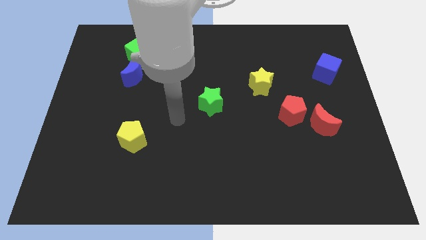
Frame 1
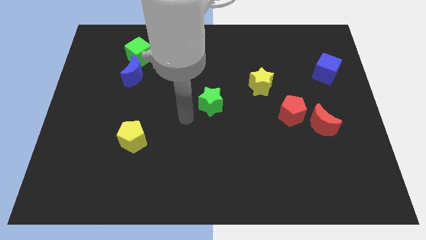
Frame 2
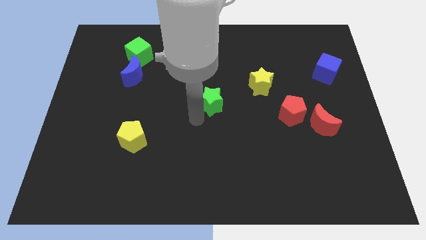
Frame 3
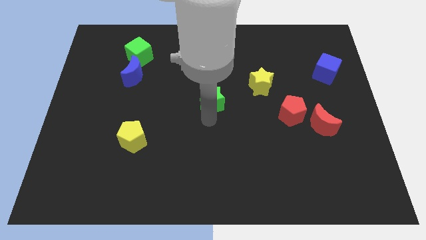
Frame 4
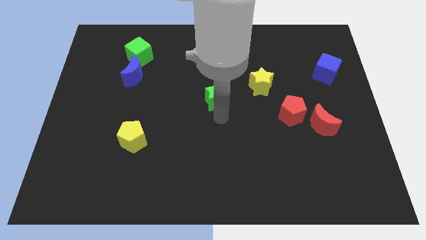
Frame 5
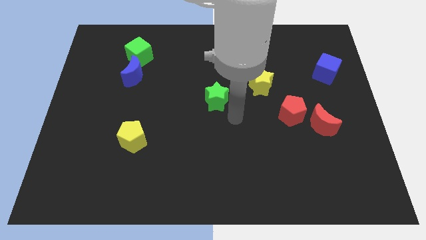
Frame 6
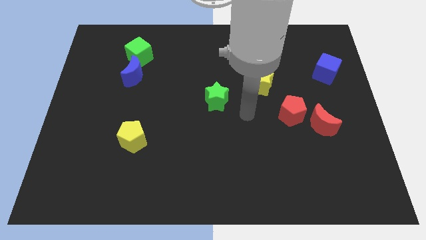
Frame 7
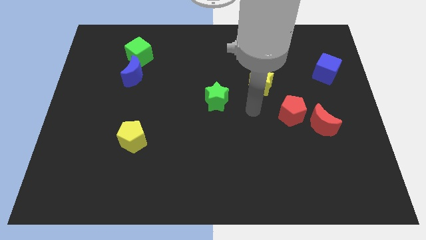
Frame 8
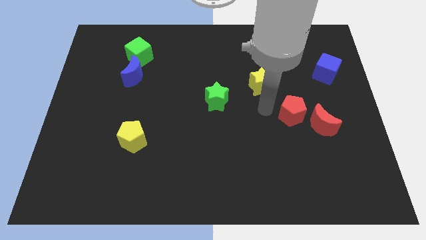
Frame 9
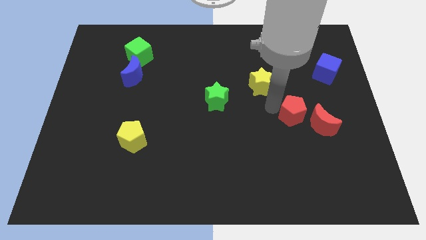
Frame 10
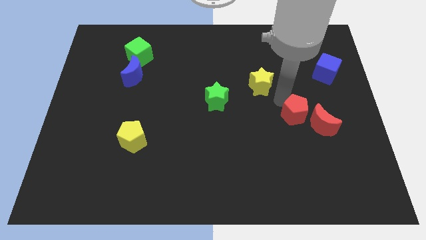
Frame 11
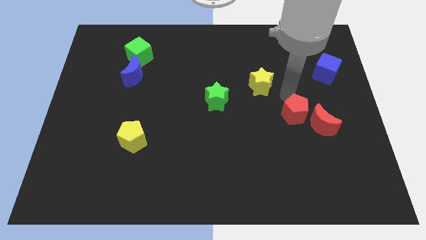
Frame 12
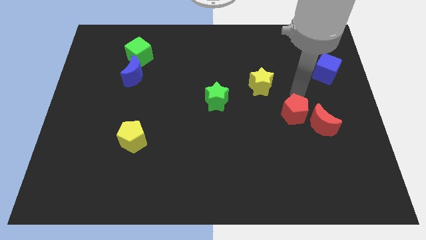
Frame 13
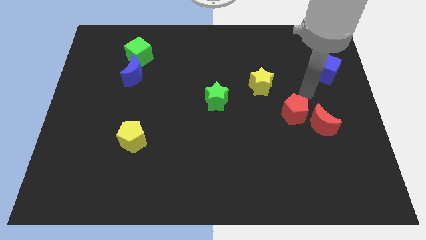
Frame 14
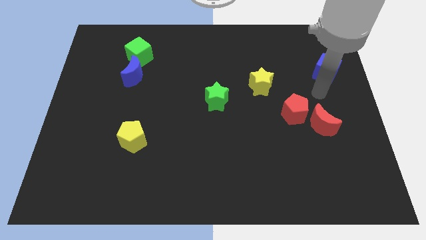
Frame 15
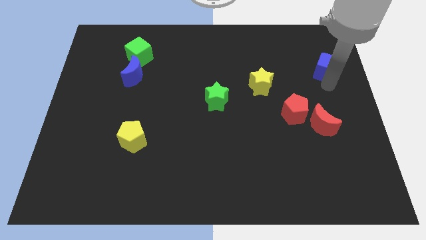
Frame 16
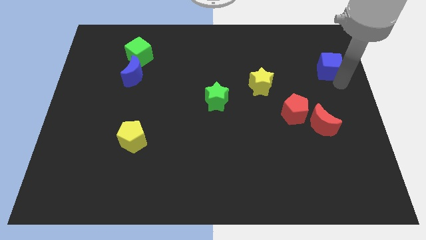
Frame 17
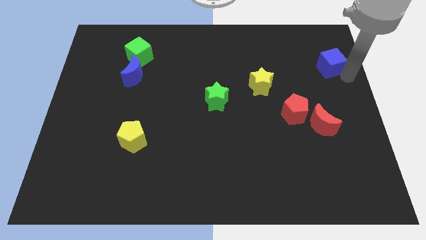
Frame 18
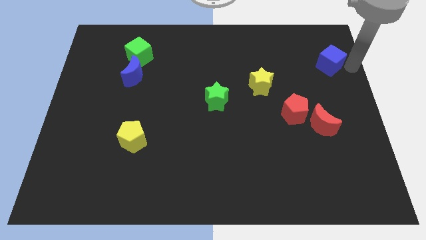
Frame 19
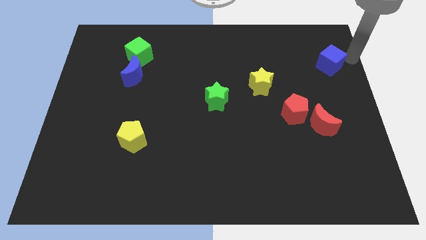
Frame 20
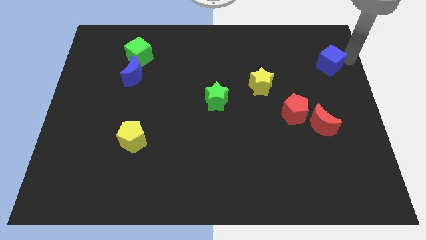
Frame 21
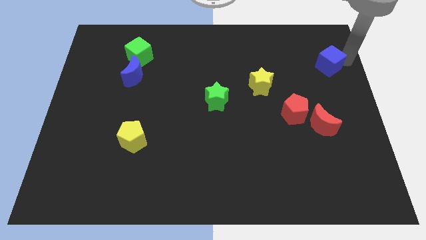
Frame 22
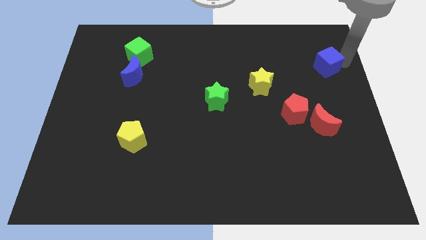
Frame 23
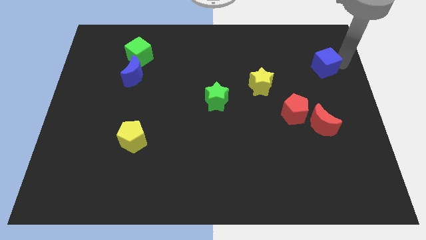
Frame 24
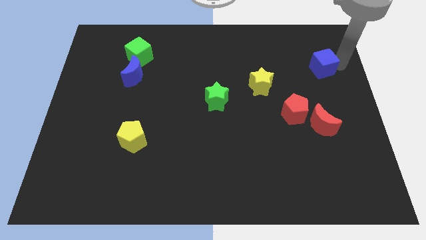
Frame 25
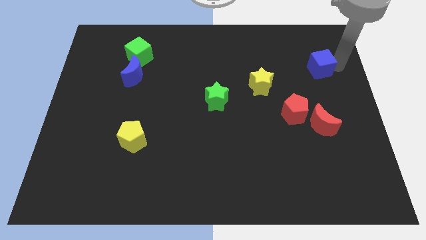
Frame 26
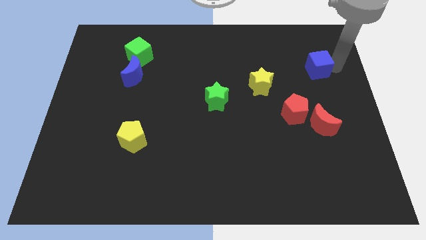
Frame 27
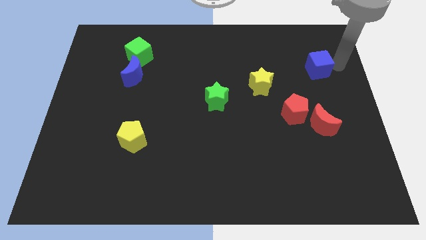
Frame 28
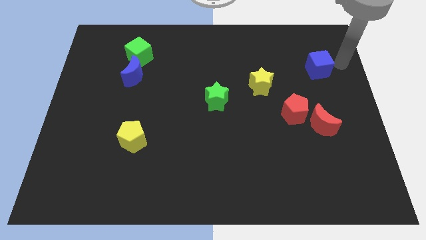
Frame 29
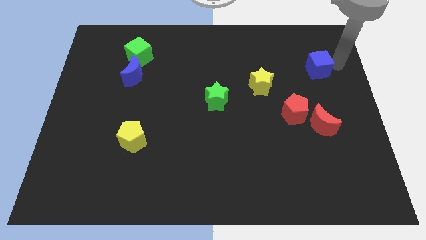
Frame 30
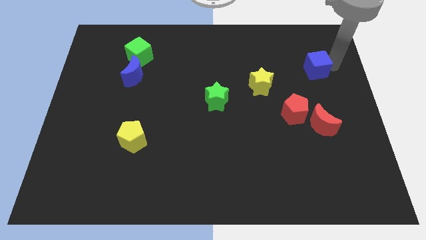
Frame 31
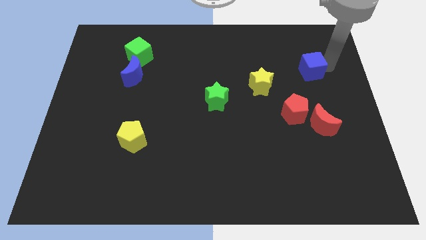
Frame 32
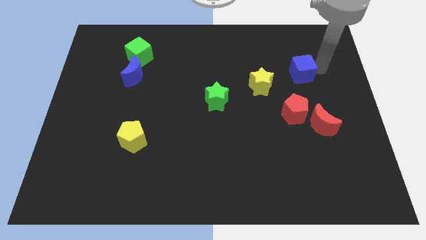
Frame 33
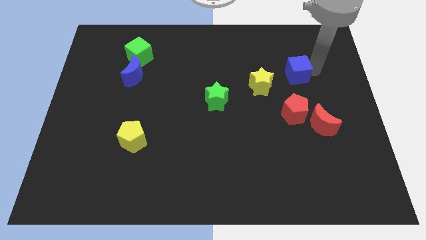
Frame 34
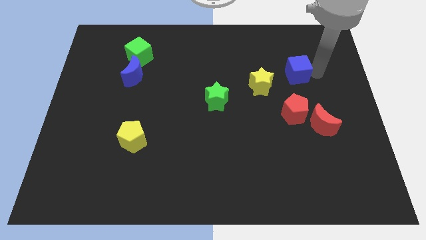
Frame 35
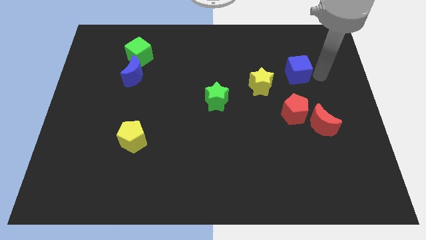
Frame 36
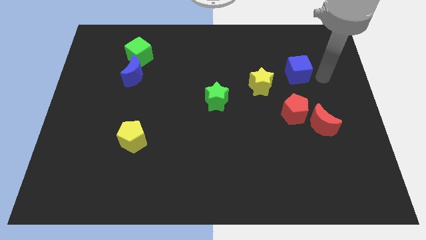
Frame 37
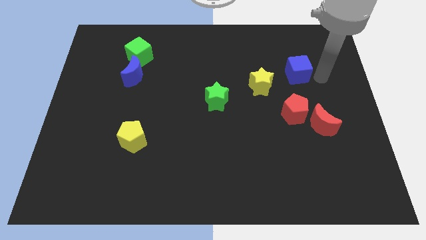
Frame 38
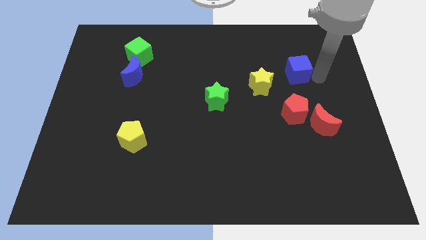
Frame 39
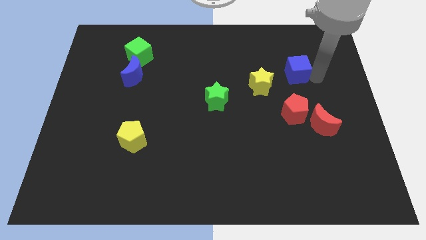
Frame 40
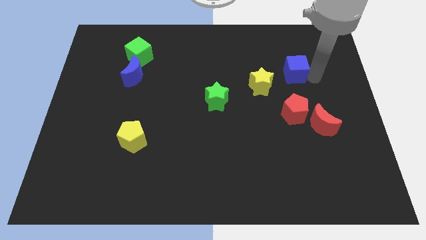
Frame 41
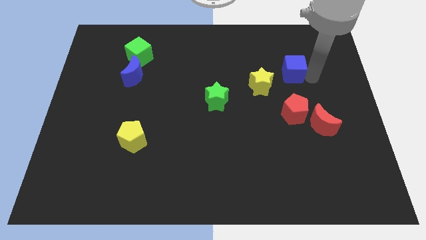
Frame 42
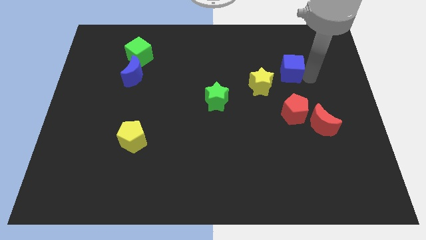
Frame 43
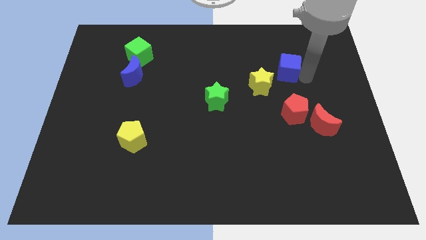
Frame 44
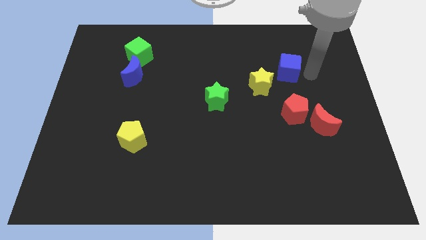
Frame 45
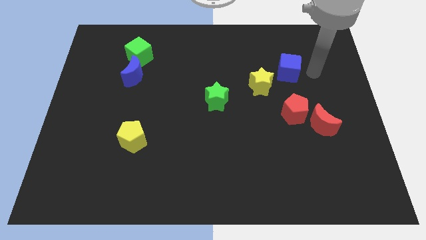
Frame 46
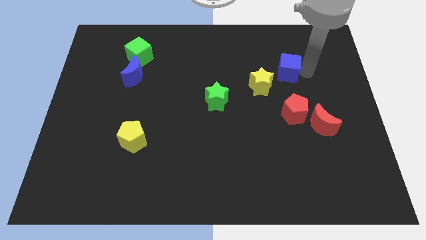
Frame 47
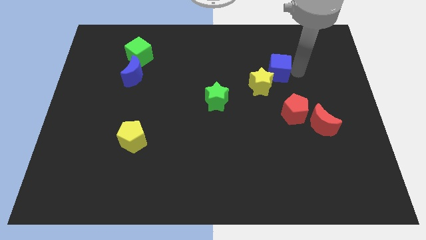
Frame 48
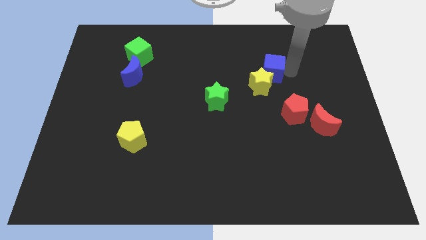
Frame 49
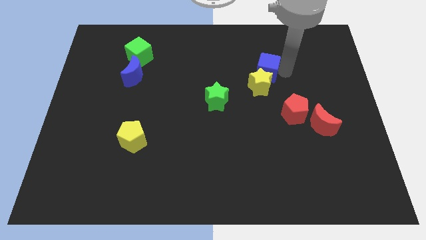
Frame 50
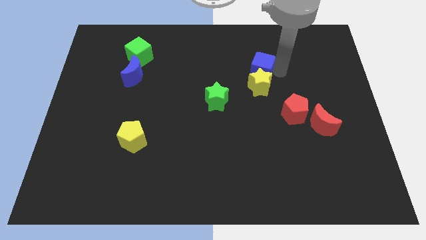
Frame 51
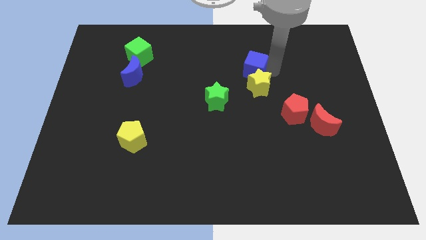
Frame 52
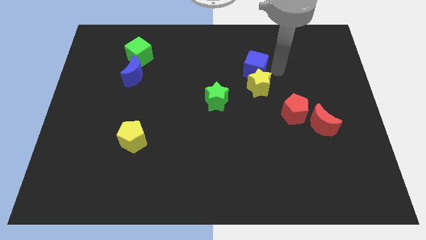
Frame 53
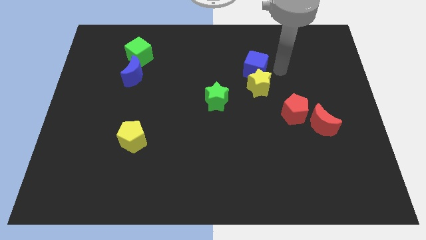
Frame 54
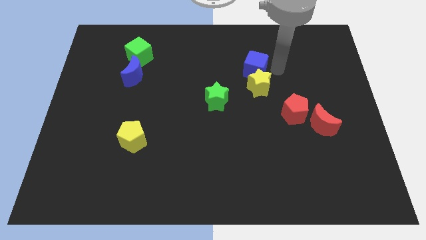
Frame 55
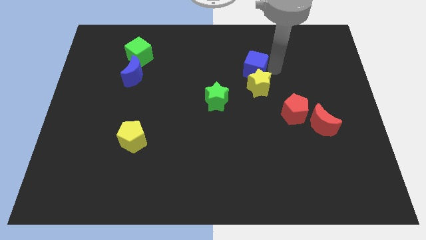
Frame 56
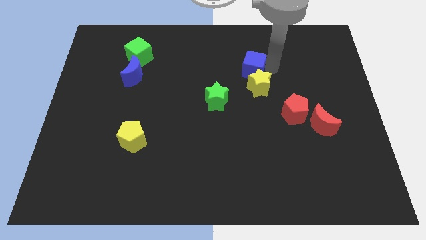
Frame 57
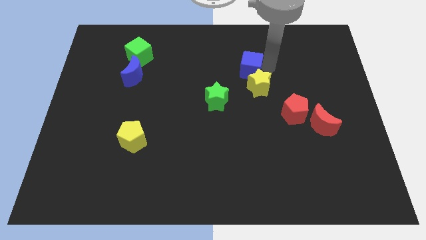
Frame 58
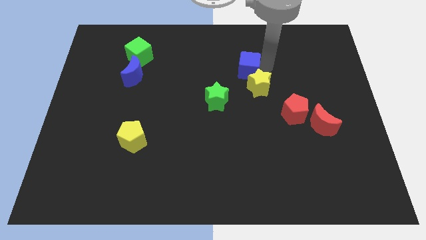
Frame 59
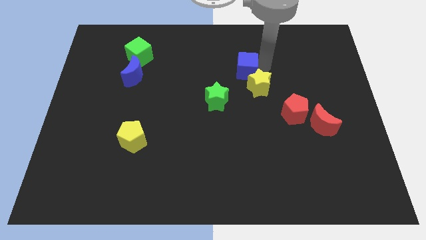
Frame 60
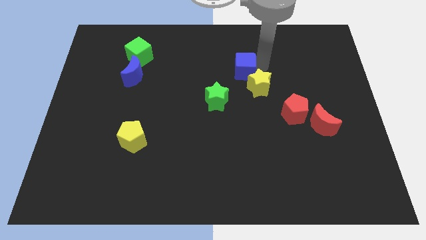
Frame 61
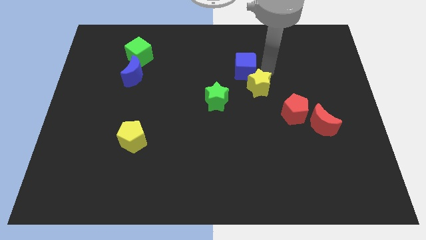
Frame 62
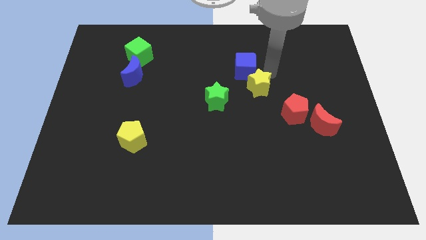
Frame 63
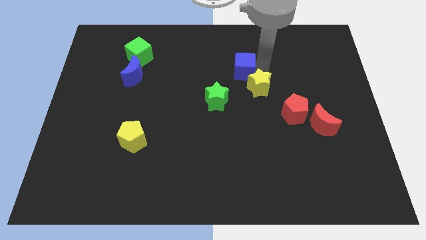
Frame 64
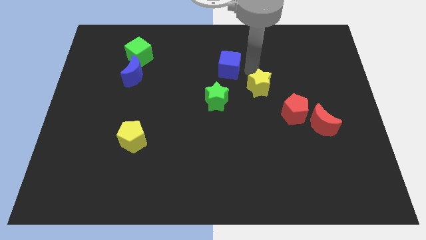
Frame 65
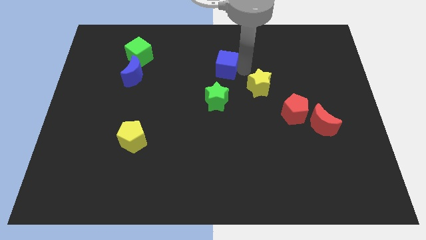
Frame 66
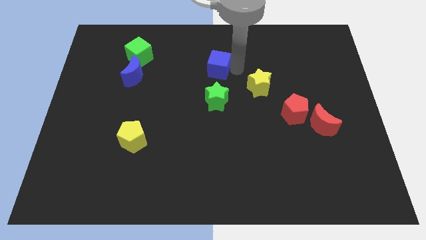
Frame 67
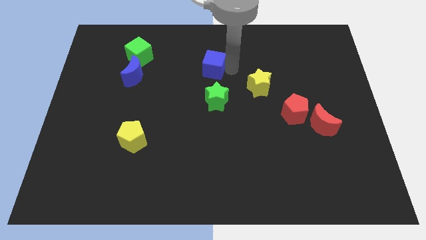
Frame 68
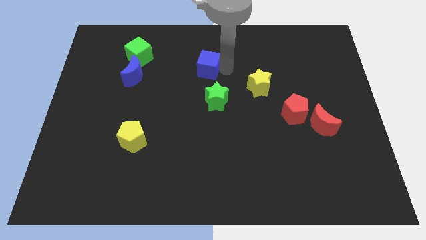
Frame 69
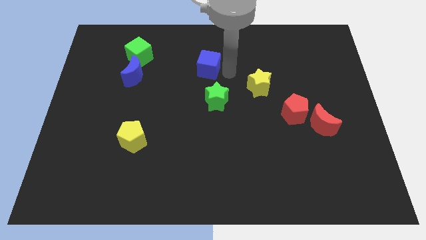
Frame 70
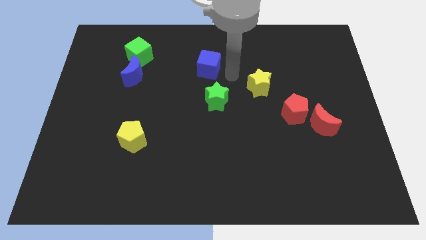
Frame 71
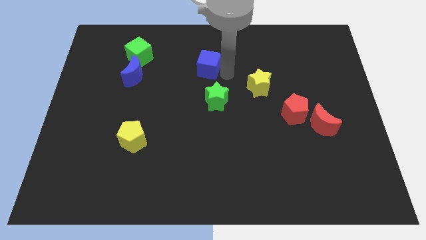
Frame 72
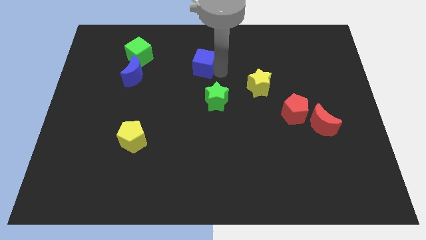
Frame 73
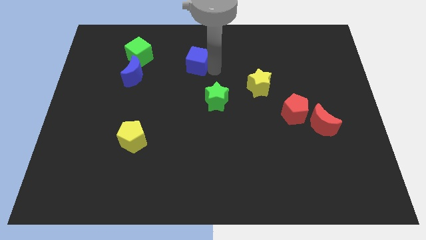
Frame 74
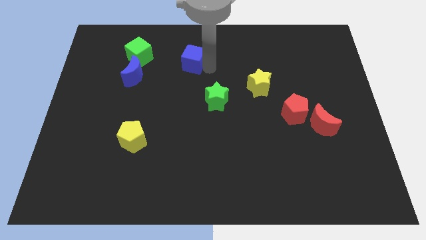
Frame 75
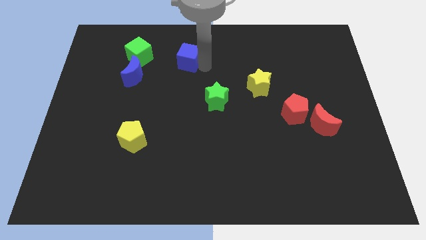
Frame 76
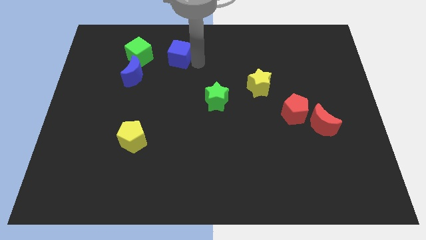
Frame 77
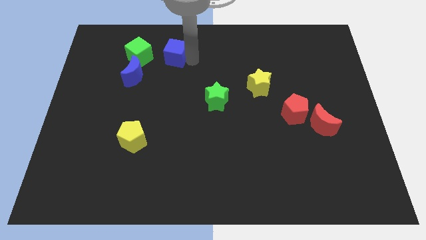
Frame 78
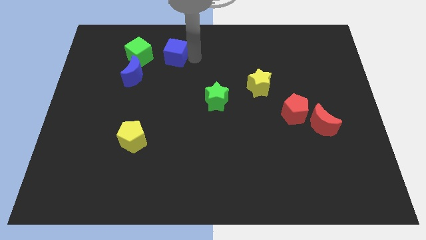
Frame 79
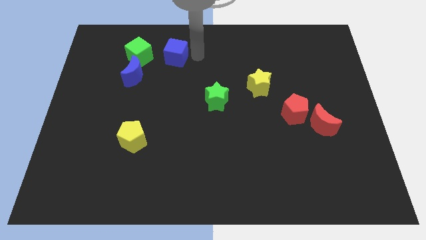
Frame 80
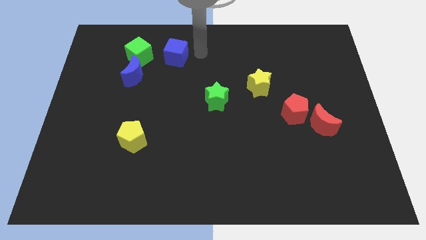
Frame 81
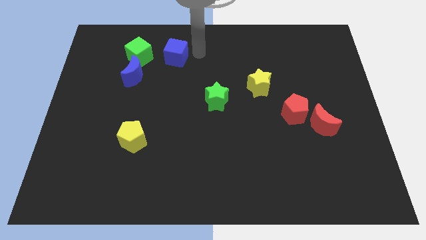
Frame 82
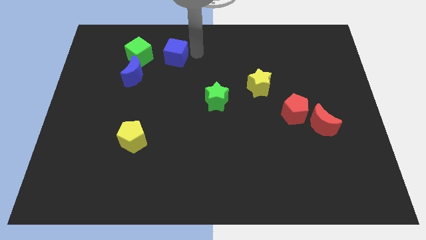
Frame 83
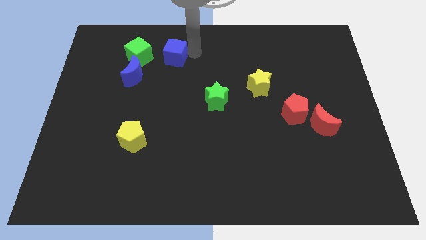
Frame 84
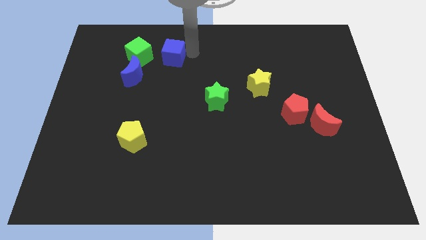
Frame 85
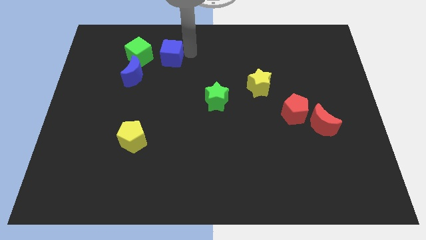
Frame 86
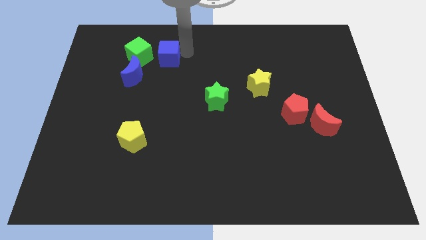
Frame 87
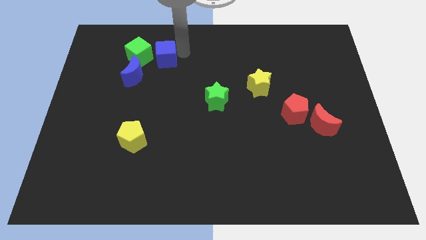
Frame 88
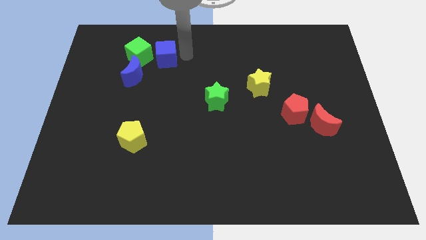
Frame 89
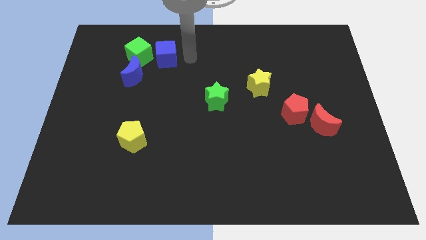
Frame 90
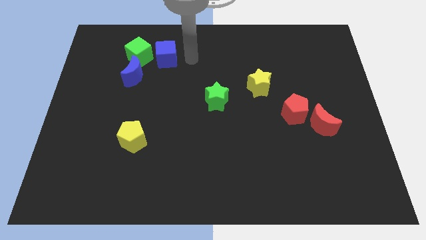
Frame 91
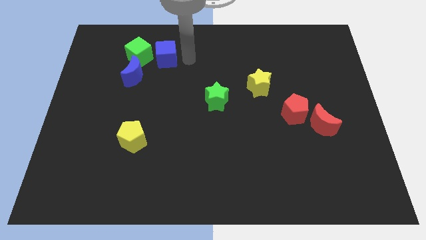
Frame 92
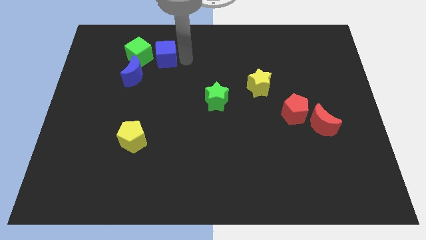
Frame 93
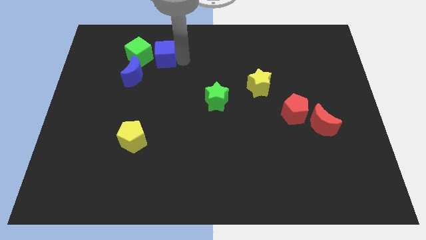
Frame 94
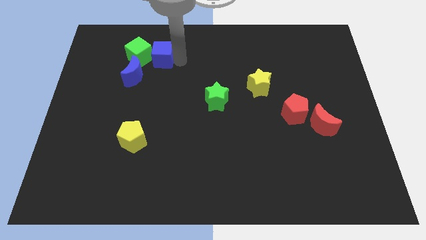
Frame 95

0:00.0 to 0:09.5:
put the blue cube close to the green cube
